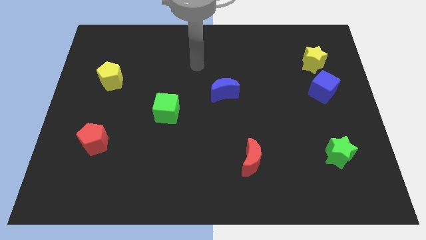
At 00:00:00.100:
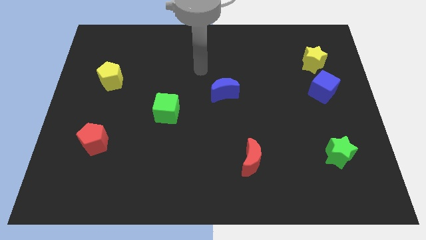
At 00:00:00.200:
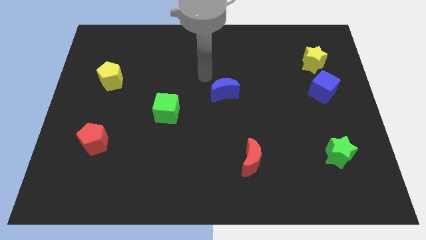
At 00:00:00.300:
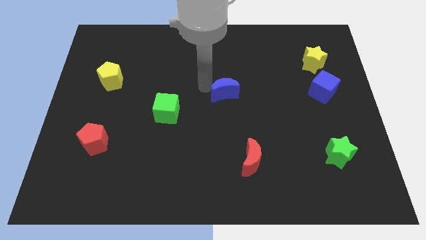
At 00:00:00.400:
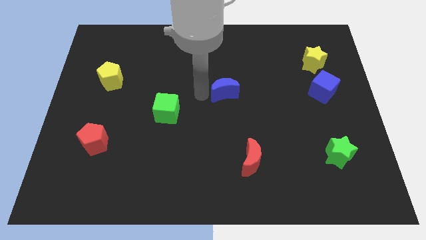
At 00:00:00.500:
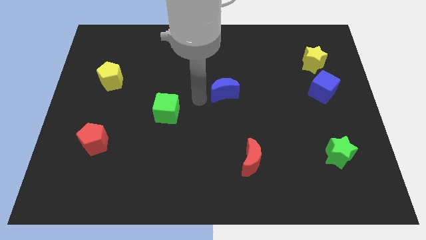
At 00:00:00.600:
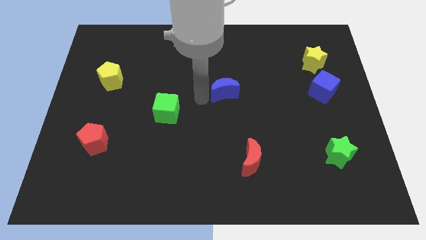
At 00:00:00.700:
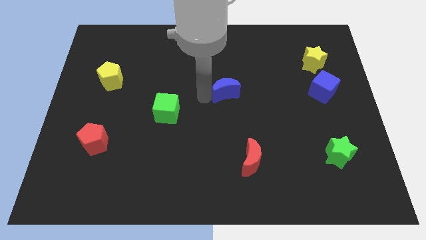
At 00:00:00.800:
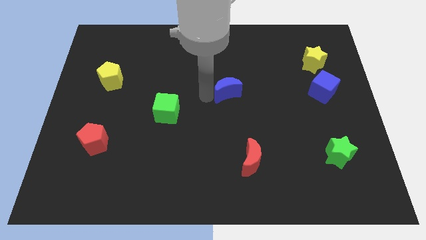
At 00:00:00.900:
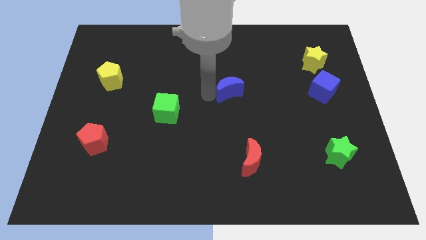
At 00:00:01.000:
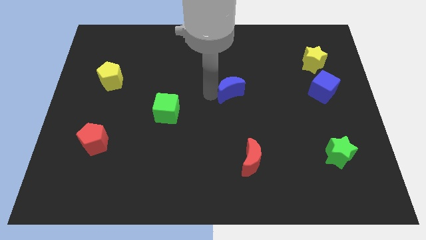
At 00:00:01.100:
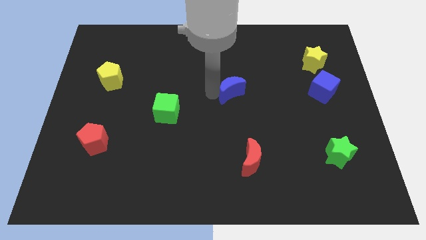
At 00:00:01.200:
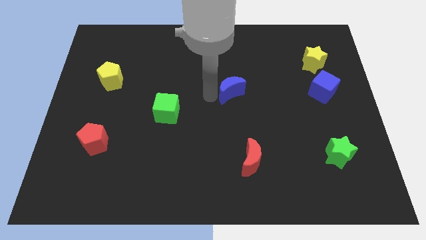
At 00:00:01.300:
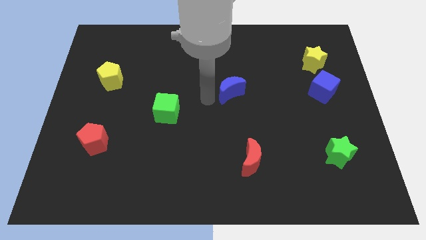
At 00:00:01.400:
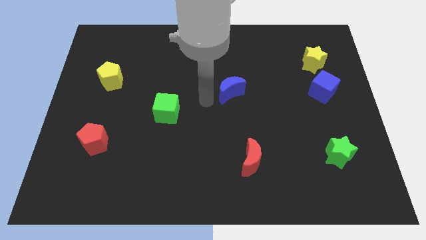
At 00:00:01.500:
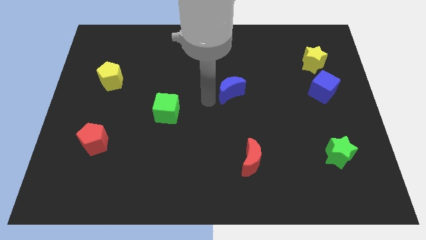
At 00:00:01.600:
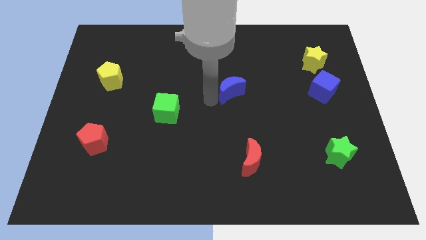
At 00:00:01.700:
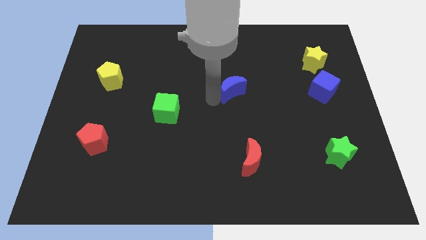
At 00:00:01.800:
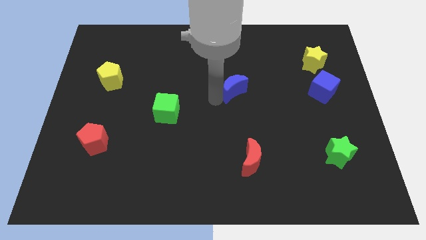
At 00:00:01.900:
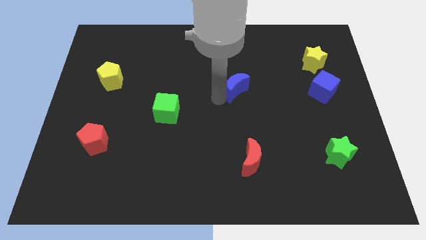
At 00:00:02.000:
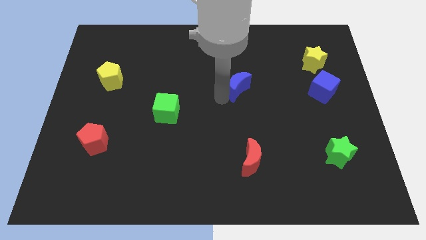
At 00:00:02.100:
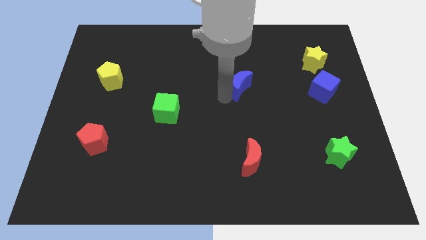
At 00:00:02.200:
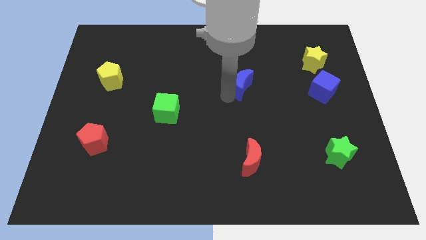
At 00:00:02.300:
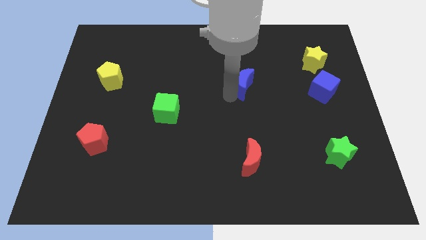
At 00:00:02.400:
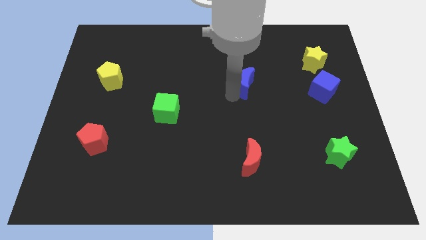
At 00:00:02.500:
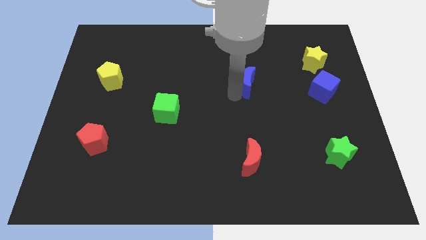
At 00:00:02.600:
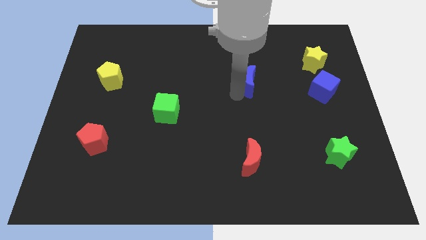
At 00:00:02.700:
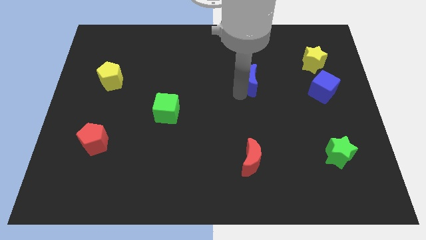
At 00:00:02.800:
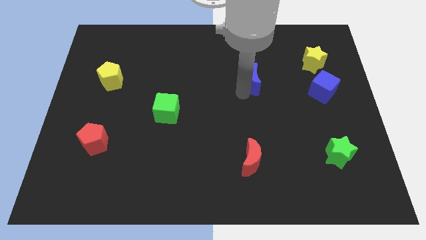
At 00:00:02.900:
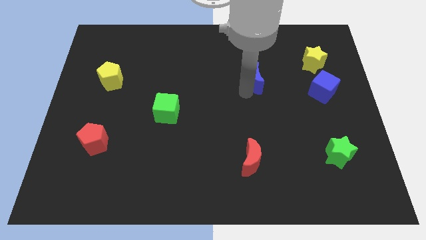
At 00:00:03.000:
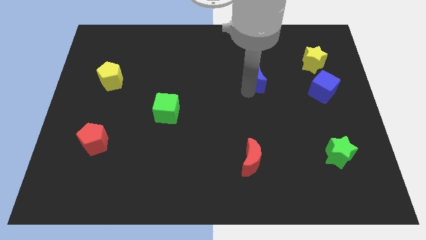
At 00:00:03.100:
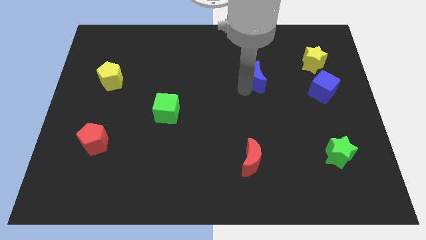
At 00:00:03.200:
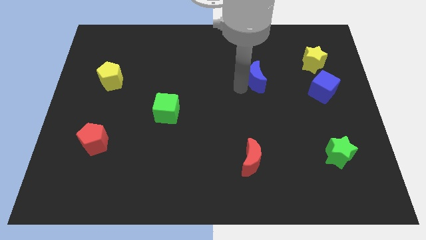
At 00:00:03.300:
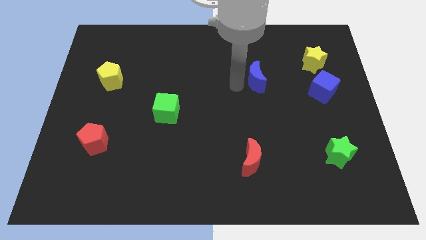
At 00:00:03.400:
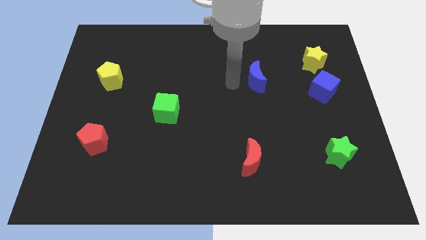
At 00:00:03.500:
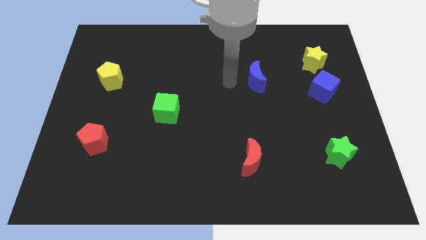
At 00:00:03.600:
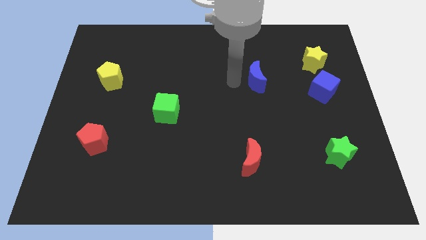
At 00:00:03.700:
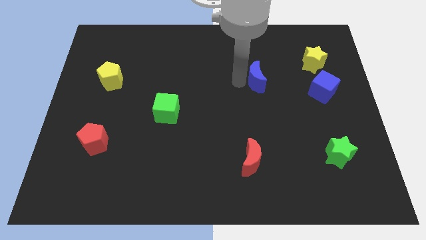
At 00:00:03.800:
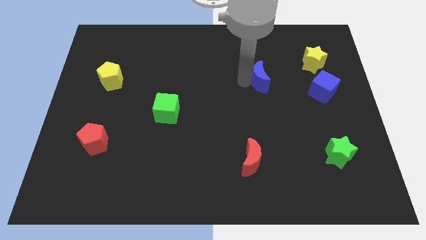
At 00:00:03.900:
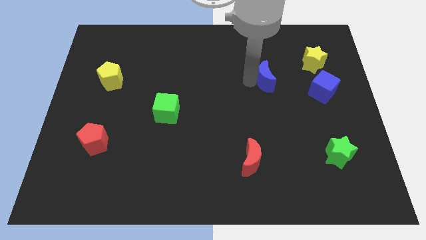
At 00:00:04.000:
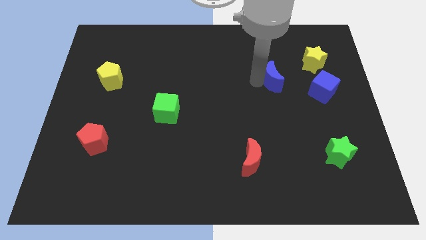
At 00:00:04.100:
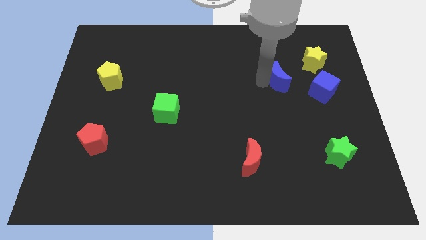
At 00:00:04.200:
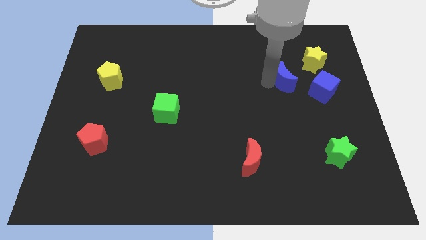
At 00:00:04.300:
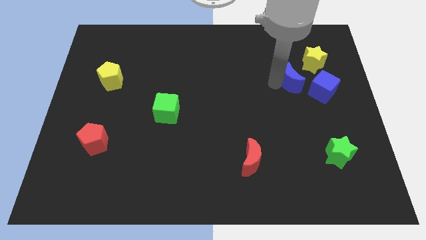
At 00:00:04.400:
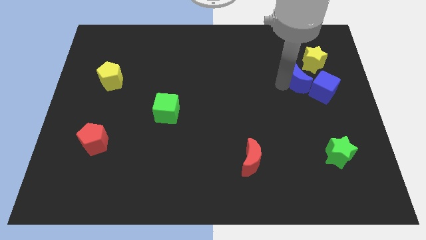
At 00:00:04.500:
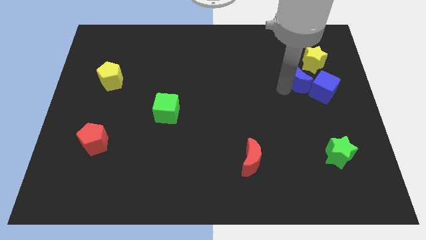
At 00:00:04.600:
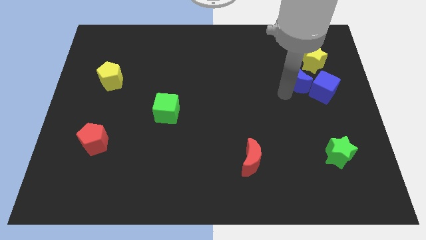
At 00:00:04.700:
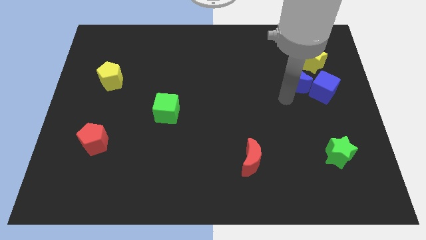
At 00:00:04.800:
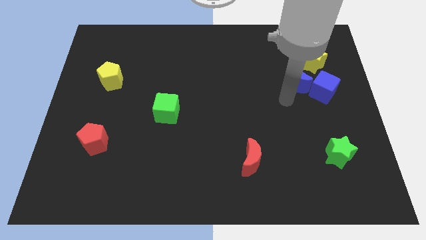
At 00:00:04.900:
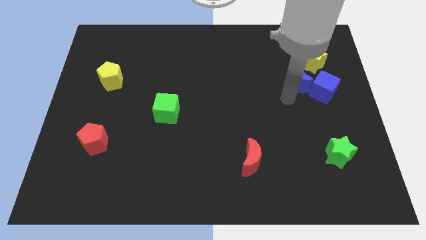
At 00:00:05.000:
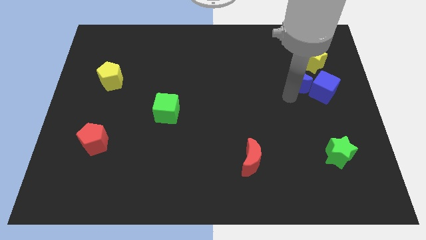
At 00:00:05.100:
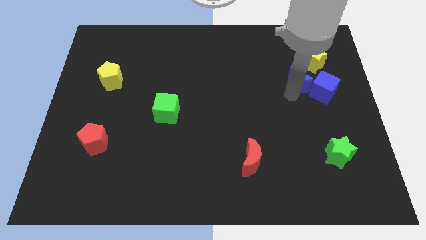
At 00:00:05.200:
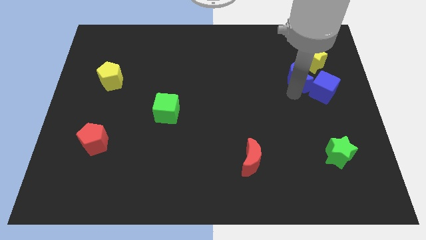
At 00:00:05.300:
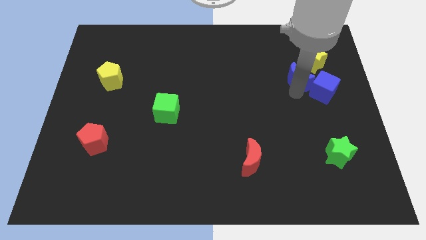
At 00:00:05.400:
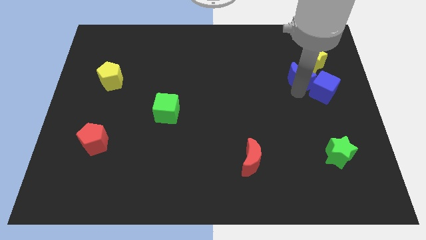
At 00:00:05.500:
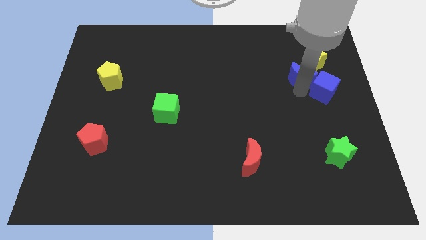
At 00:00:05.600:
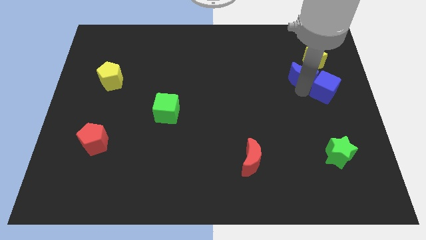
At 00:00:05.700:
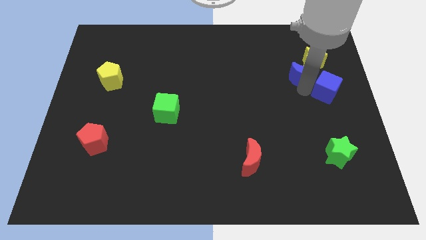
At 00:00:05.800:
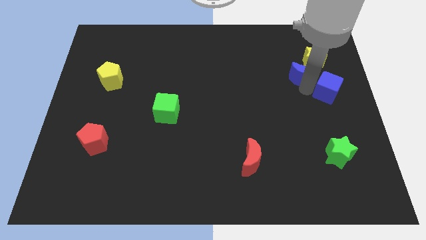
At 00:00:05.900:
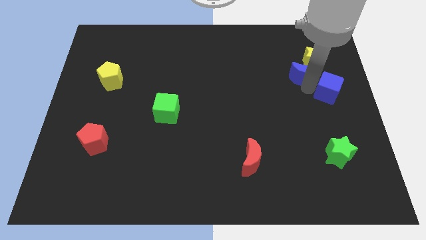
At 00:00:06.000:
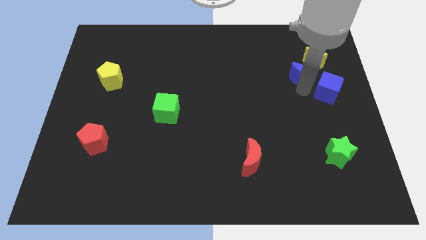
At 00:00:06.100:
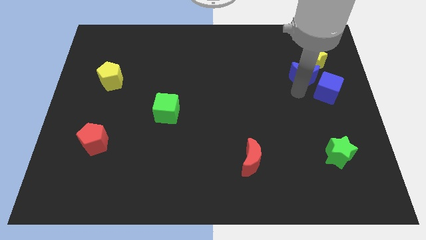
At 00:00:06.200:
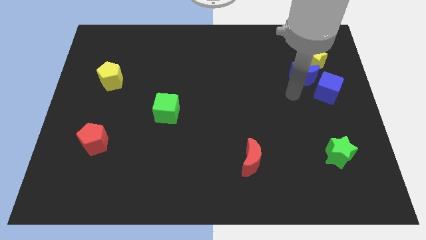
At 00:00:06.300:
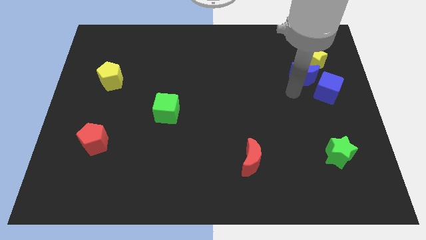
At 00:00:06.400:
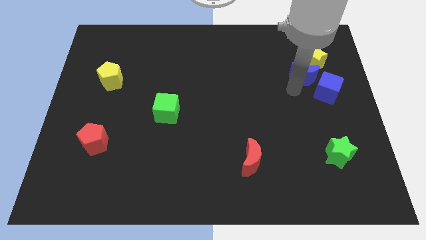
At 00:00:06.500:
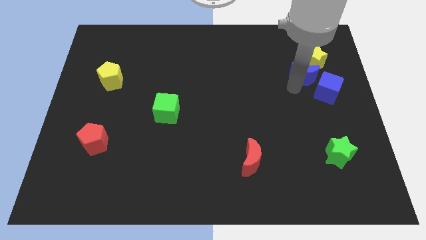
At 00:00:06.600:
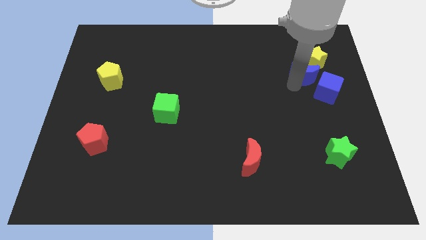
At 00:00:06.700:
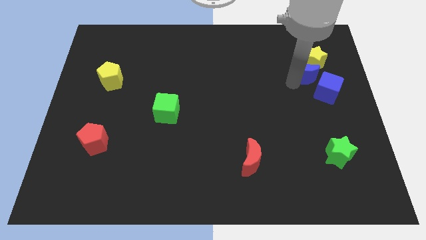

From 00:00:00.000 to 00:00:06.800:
put the blue moon close to the yellow star
